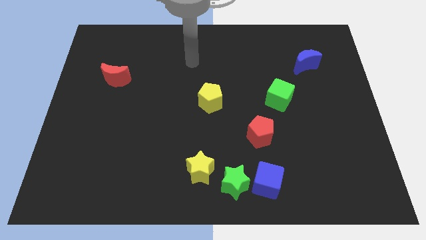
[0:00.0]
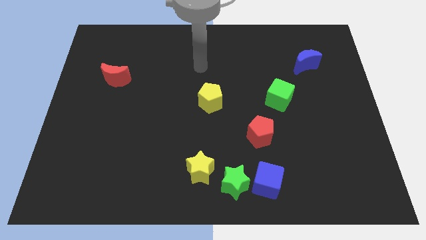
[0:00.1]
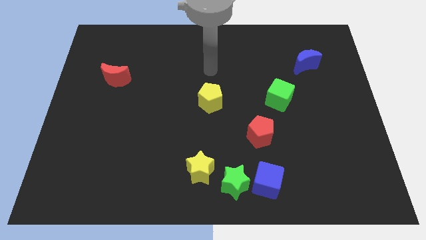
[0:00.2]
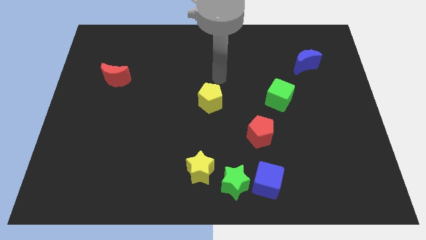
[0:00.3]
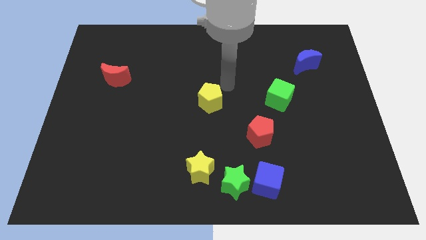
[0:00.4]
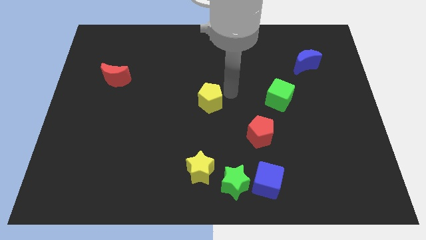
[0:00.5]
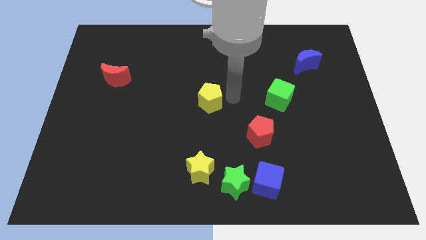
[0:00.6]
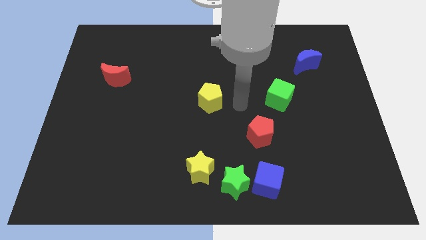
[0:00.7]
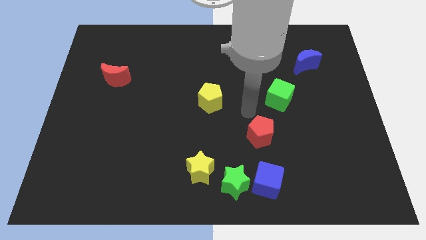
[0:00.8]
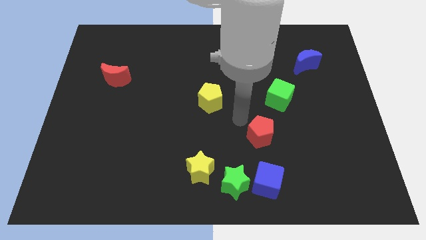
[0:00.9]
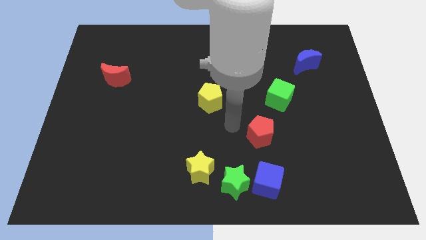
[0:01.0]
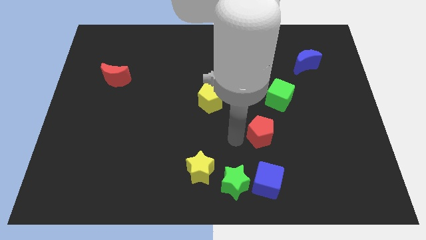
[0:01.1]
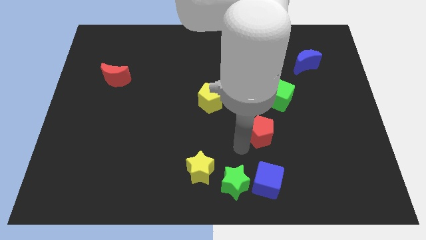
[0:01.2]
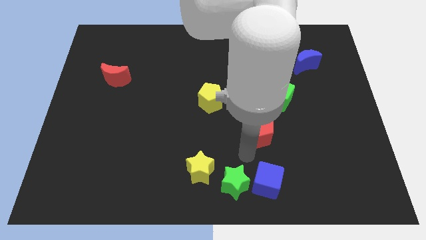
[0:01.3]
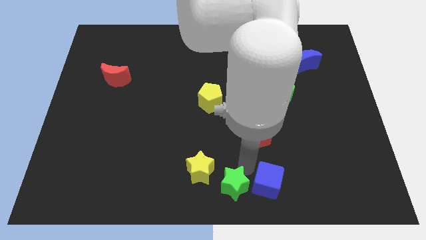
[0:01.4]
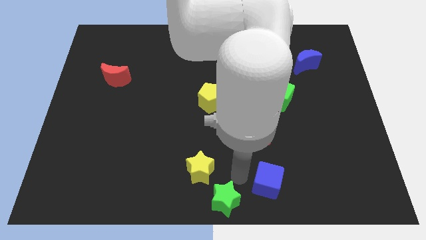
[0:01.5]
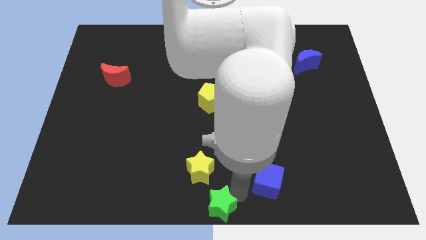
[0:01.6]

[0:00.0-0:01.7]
separate the blue cube from the green star

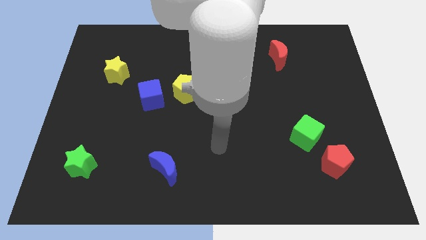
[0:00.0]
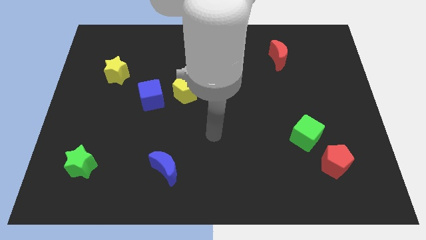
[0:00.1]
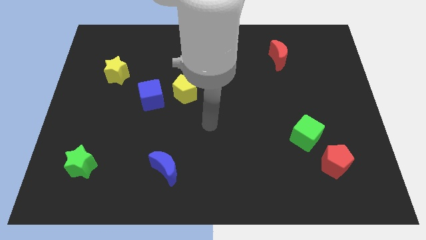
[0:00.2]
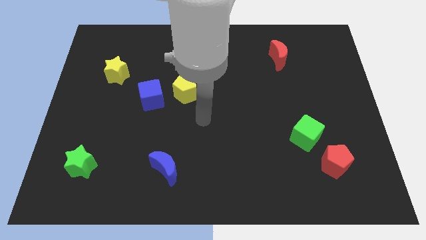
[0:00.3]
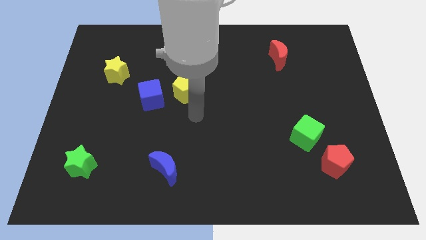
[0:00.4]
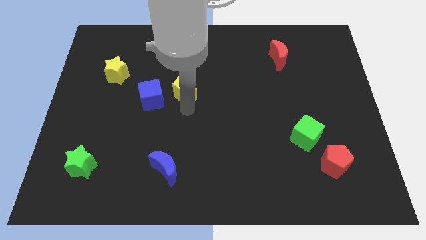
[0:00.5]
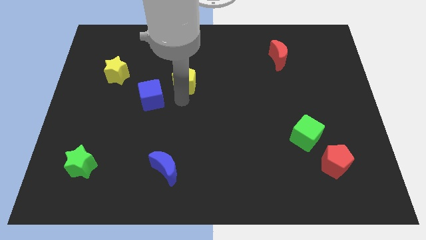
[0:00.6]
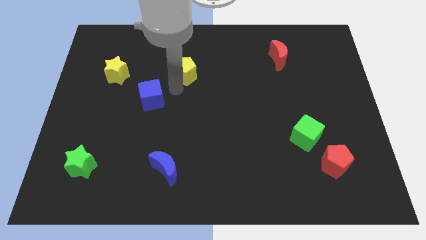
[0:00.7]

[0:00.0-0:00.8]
move the blue cube away from the yellow pentagon

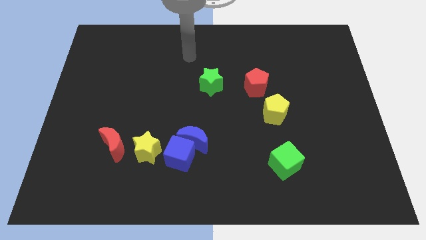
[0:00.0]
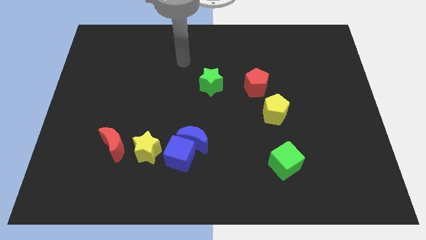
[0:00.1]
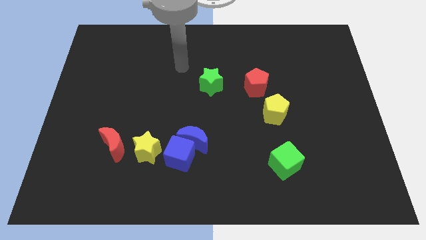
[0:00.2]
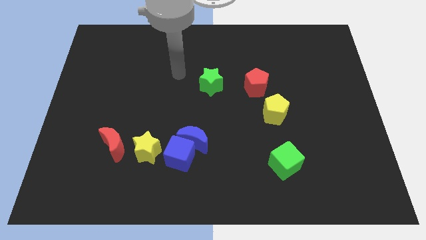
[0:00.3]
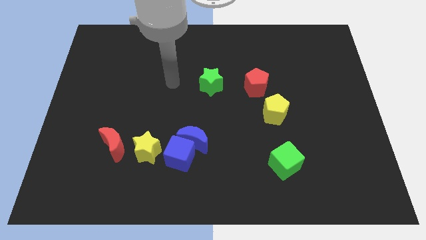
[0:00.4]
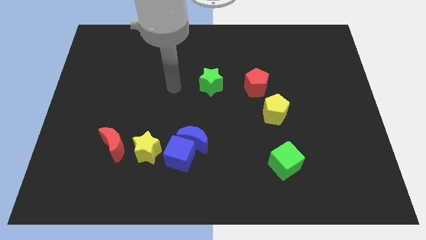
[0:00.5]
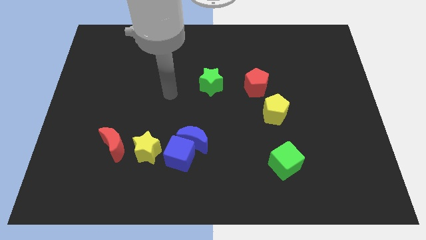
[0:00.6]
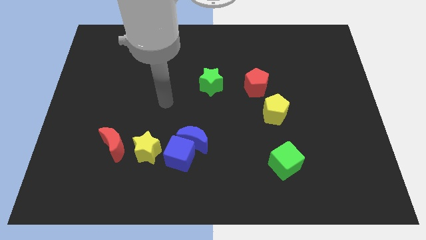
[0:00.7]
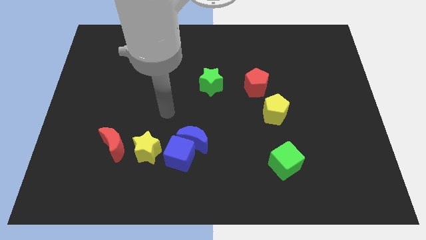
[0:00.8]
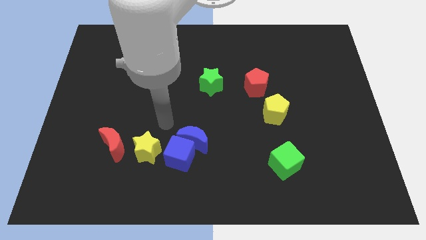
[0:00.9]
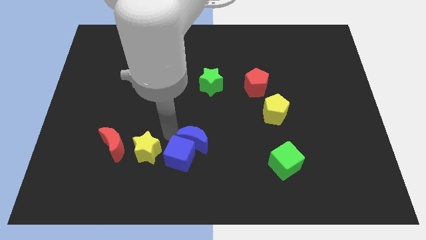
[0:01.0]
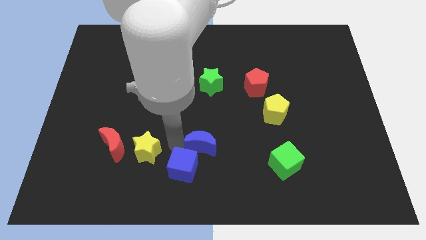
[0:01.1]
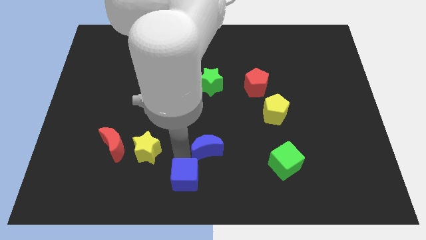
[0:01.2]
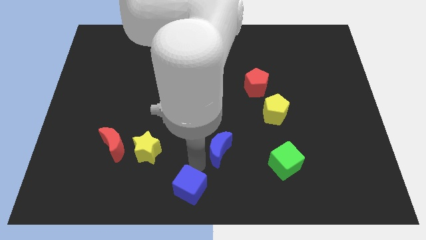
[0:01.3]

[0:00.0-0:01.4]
pull the blue moon apart from the blue cube

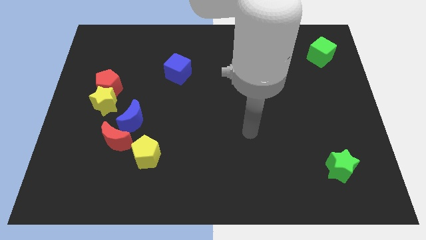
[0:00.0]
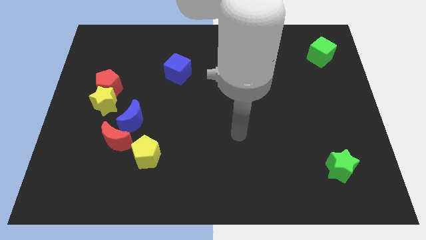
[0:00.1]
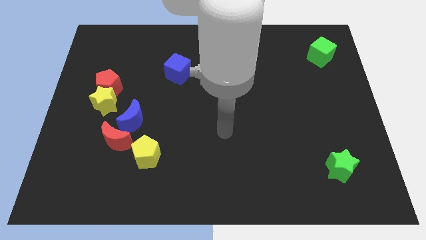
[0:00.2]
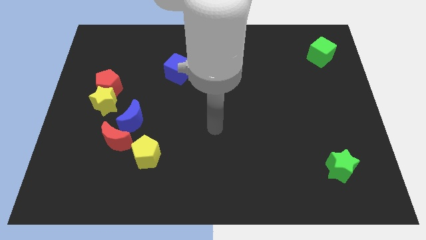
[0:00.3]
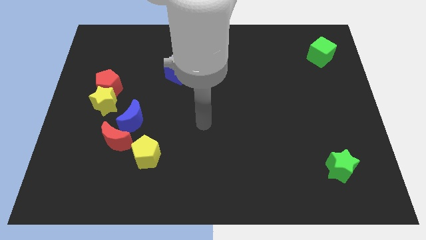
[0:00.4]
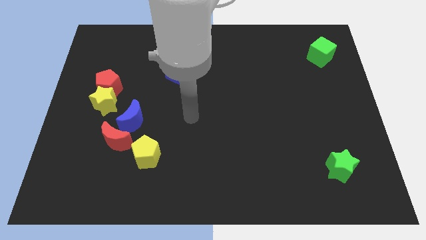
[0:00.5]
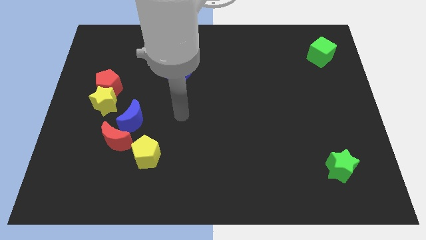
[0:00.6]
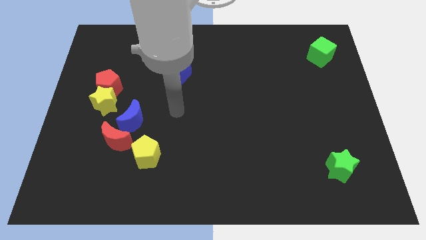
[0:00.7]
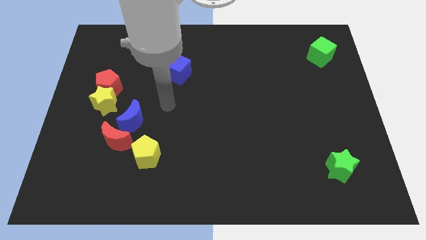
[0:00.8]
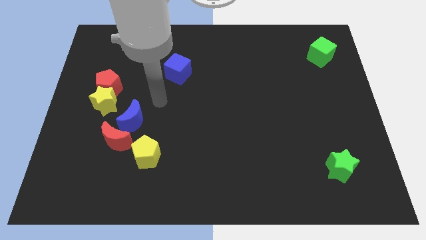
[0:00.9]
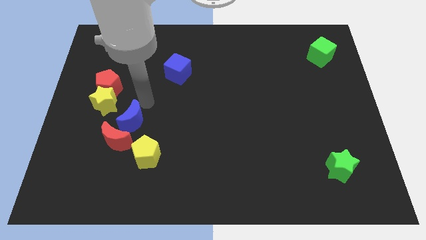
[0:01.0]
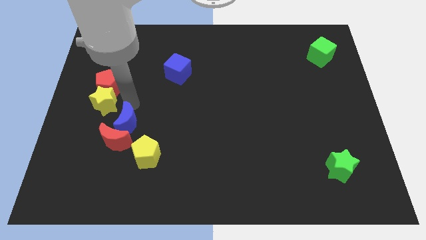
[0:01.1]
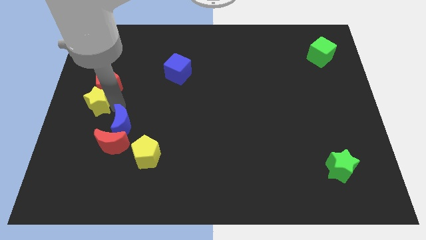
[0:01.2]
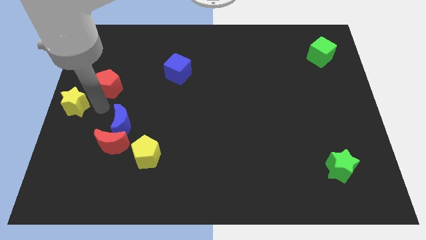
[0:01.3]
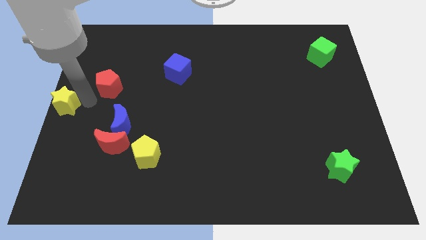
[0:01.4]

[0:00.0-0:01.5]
move the red pentagon away from the yellow star

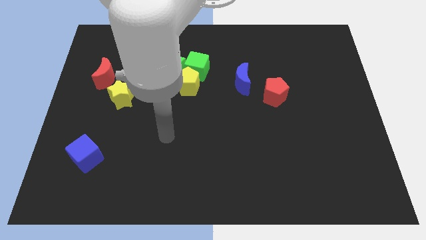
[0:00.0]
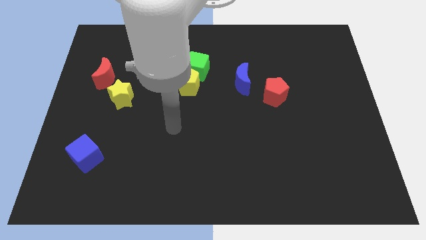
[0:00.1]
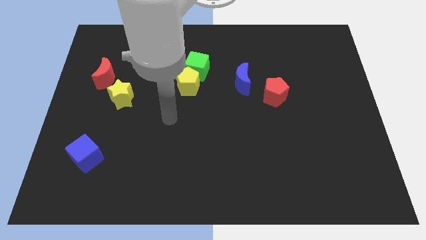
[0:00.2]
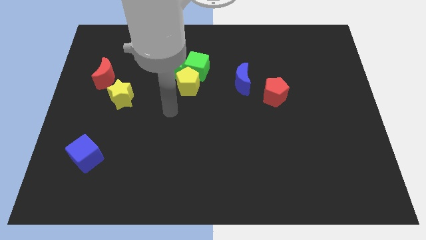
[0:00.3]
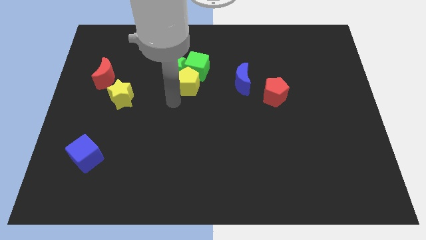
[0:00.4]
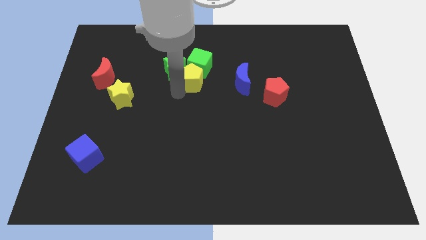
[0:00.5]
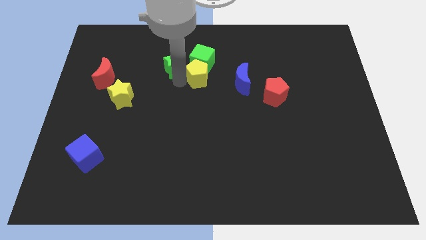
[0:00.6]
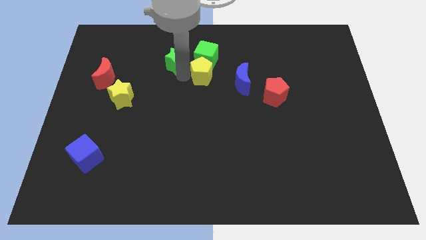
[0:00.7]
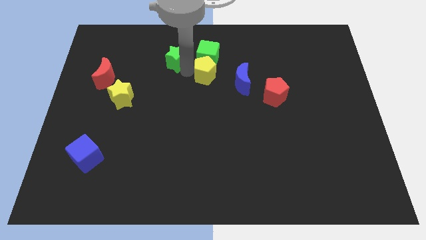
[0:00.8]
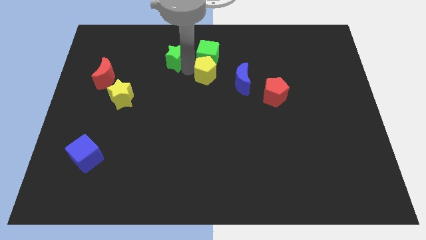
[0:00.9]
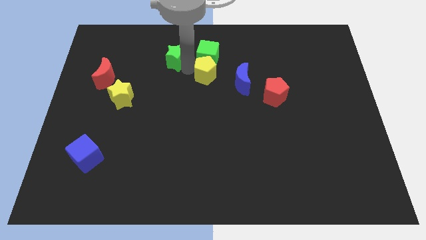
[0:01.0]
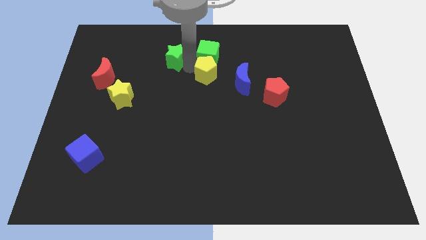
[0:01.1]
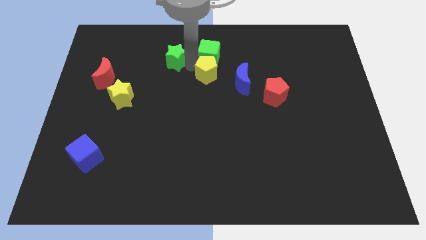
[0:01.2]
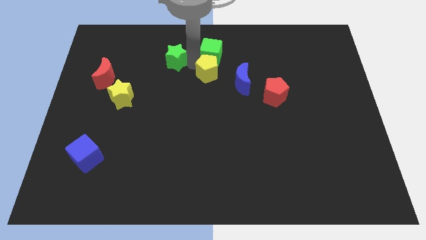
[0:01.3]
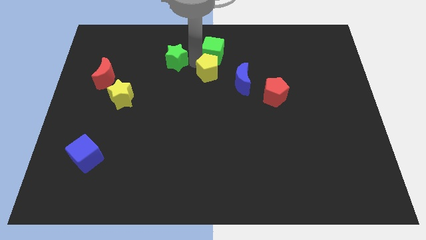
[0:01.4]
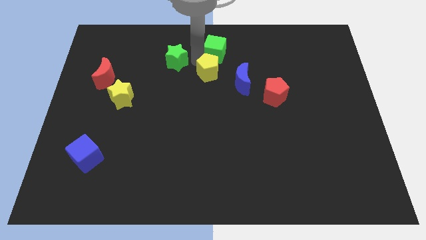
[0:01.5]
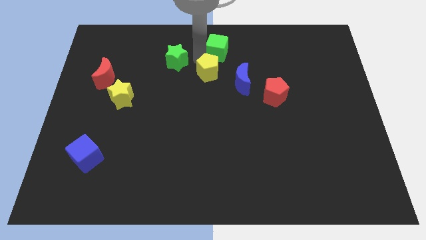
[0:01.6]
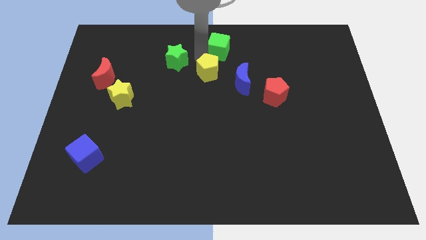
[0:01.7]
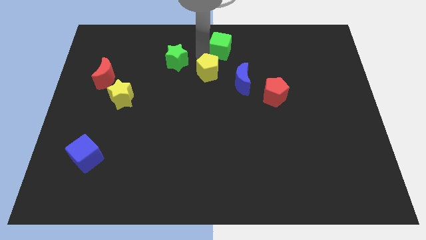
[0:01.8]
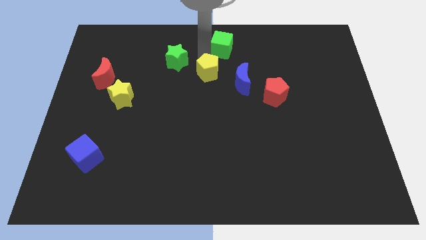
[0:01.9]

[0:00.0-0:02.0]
move the green cube away from the green star and yellow pentagon

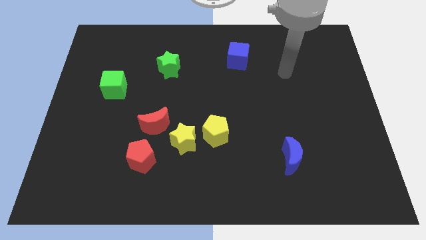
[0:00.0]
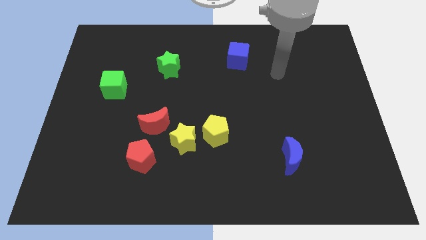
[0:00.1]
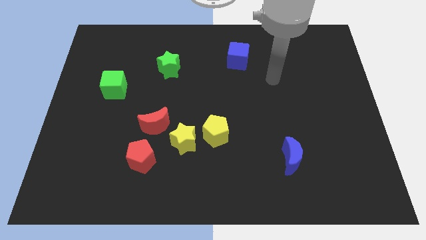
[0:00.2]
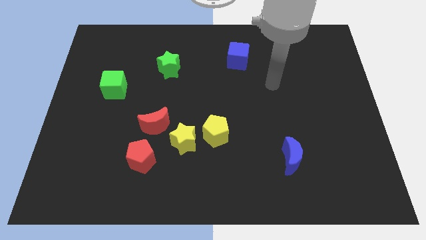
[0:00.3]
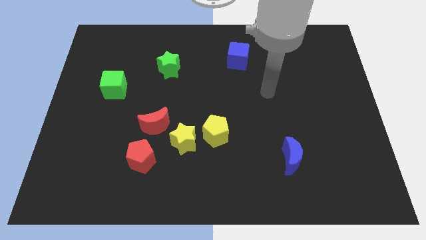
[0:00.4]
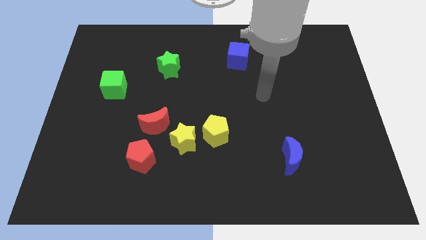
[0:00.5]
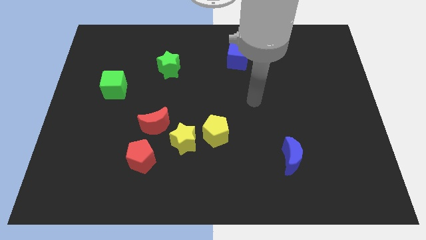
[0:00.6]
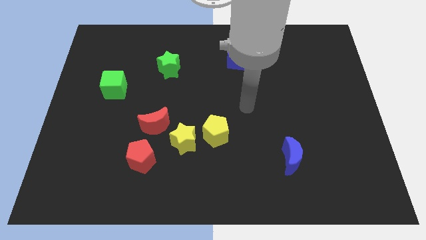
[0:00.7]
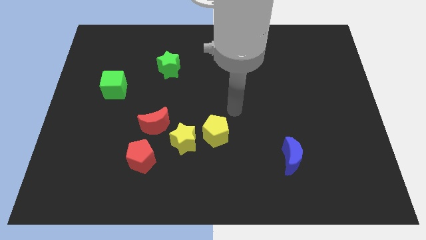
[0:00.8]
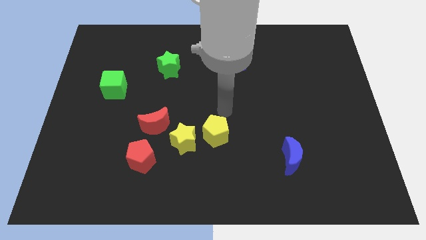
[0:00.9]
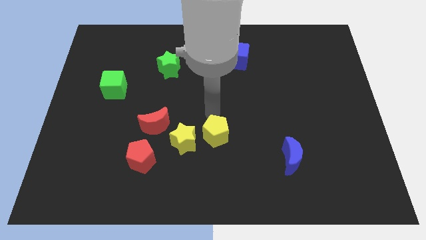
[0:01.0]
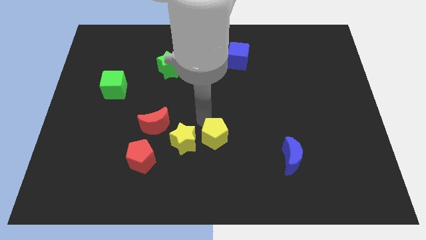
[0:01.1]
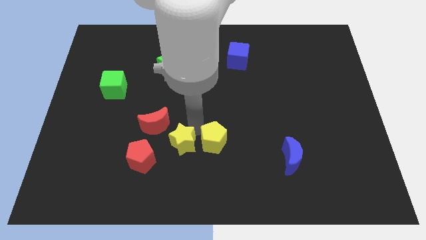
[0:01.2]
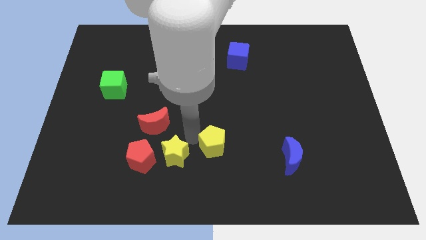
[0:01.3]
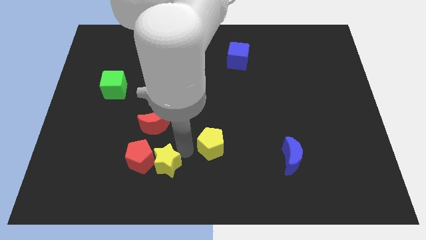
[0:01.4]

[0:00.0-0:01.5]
separate the yellow pentagon from the yellow star

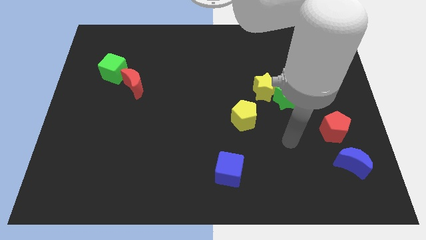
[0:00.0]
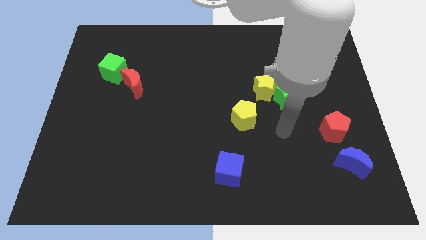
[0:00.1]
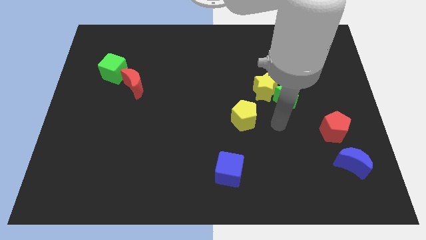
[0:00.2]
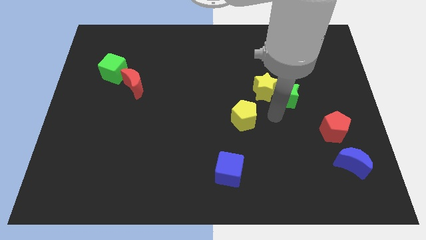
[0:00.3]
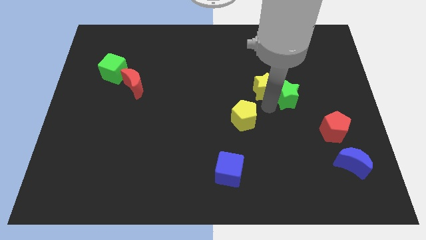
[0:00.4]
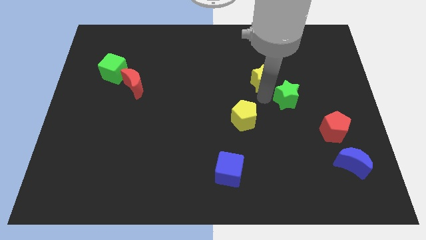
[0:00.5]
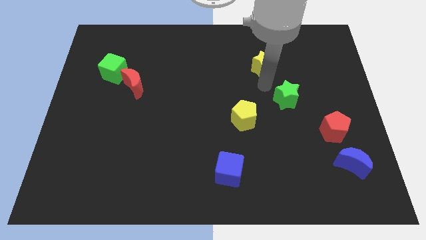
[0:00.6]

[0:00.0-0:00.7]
separate the green star from the yellow star
